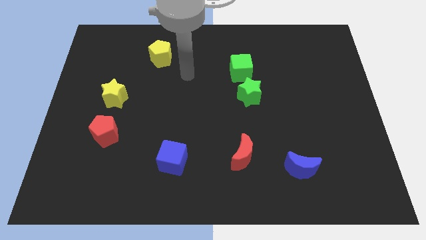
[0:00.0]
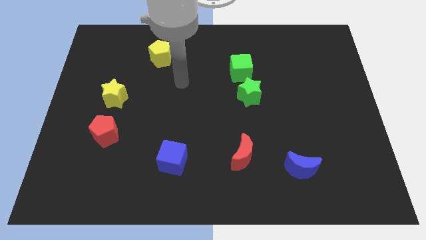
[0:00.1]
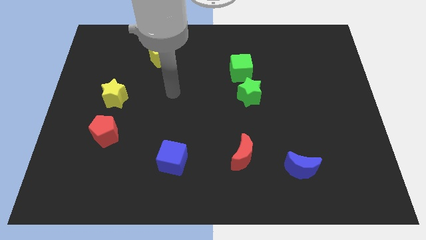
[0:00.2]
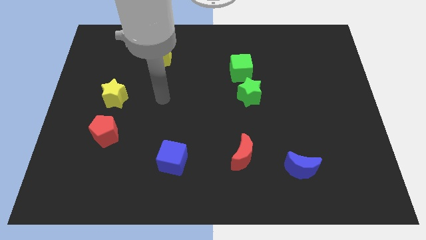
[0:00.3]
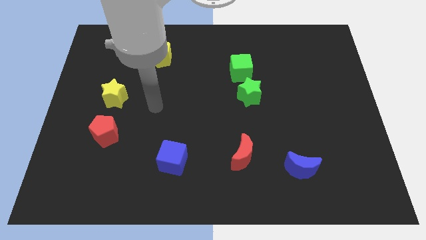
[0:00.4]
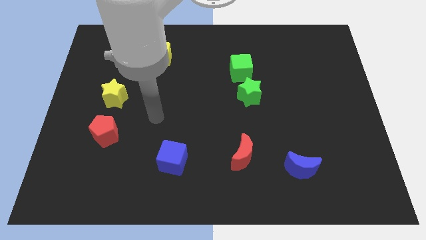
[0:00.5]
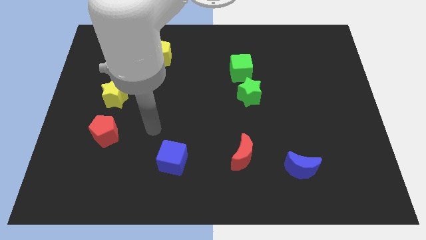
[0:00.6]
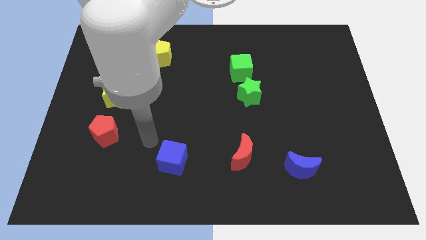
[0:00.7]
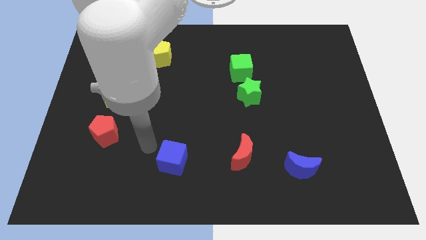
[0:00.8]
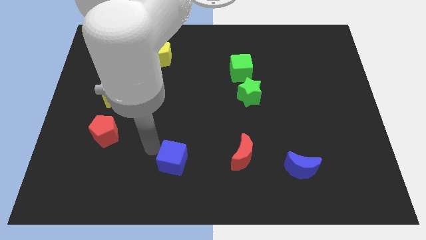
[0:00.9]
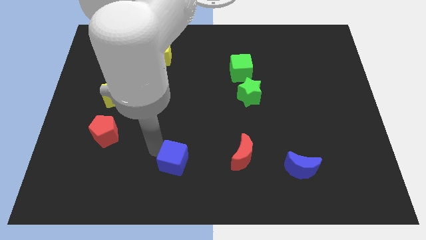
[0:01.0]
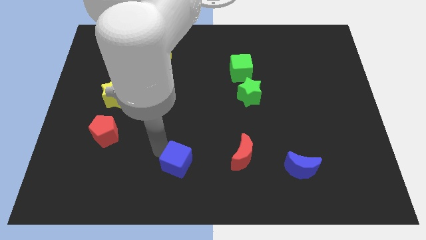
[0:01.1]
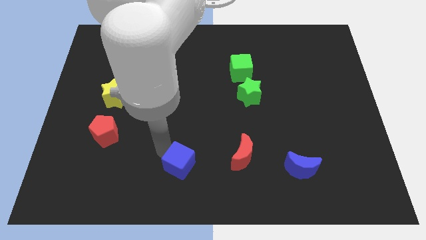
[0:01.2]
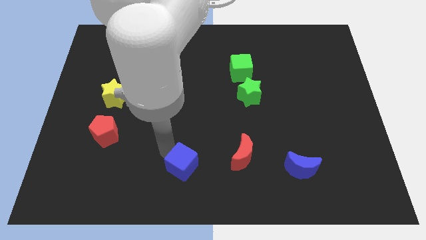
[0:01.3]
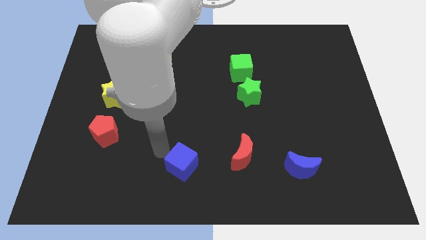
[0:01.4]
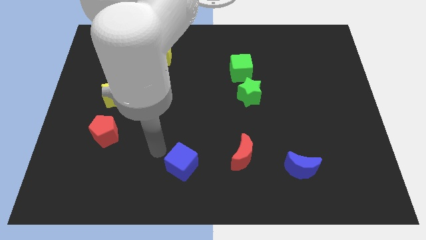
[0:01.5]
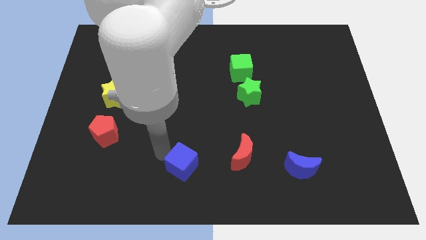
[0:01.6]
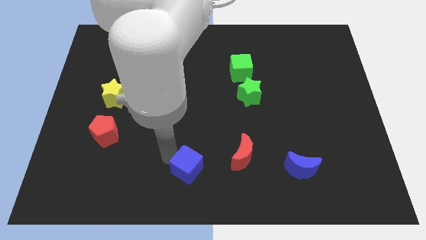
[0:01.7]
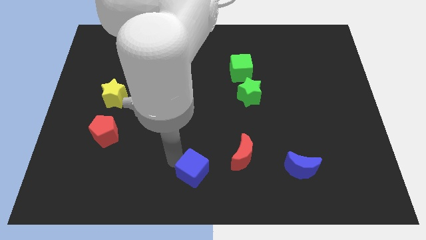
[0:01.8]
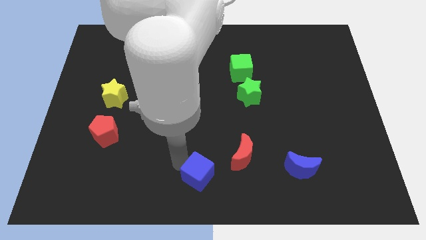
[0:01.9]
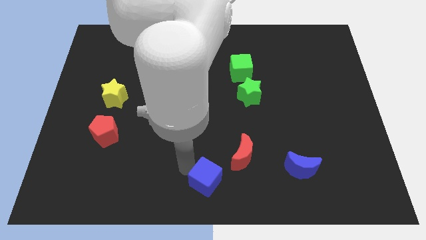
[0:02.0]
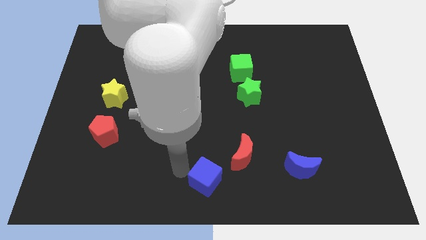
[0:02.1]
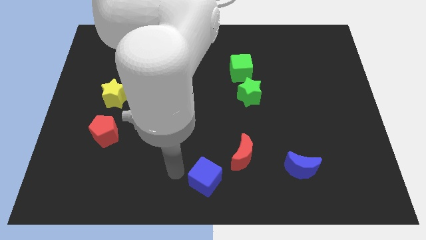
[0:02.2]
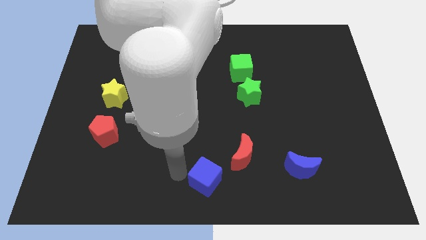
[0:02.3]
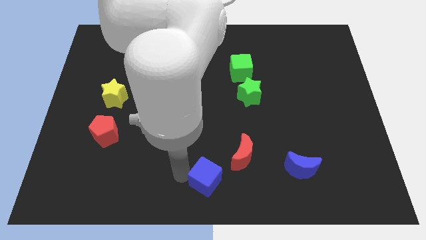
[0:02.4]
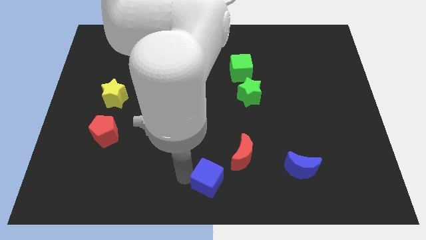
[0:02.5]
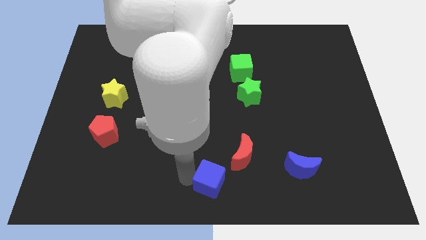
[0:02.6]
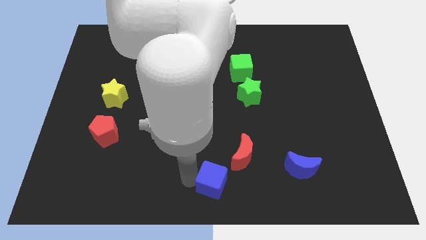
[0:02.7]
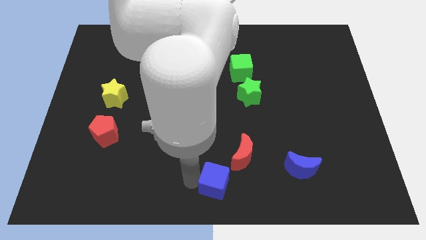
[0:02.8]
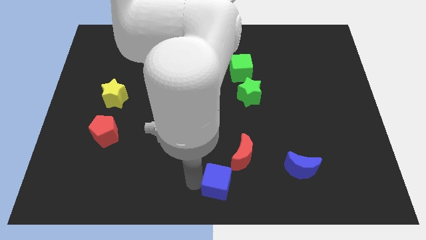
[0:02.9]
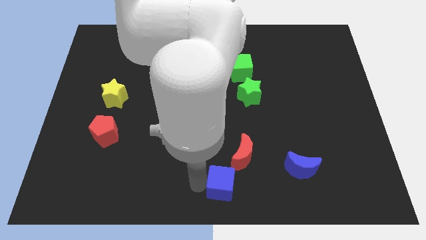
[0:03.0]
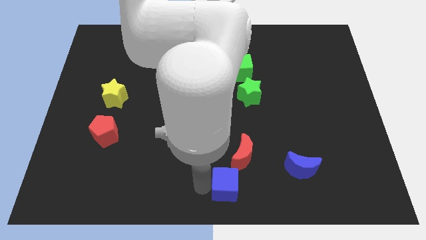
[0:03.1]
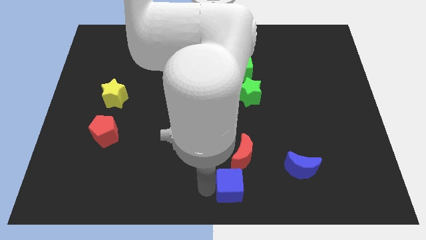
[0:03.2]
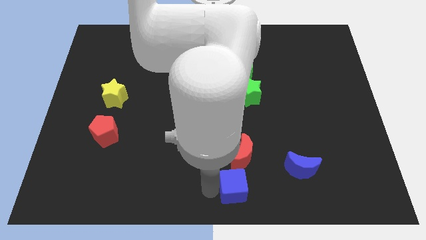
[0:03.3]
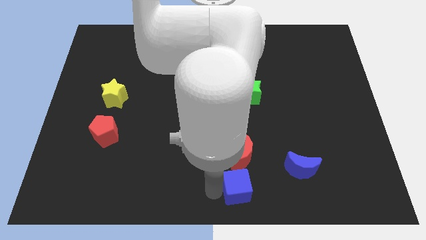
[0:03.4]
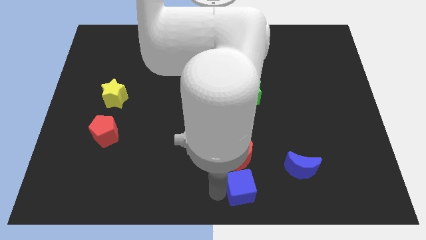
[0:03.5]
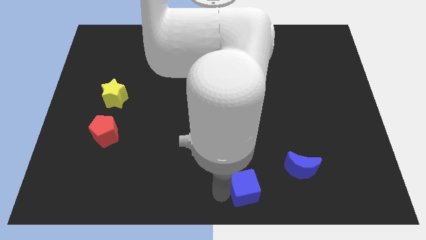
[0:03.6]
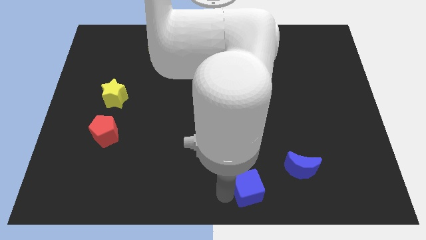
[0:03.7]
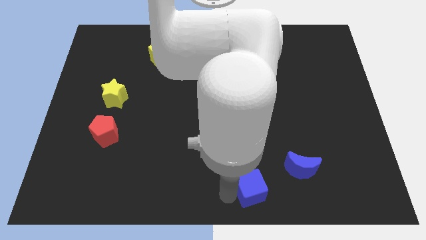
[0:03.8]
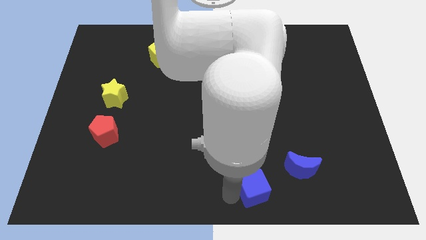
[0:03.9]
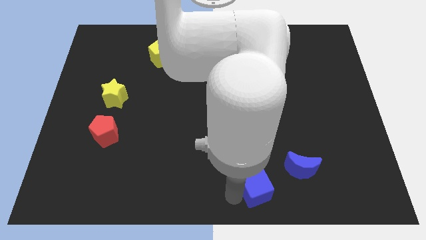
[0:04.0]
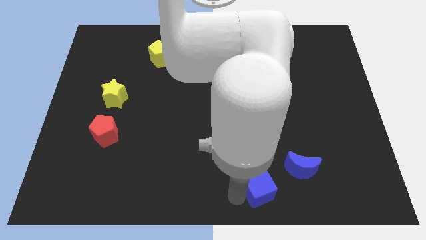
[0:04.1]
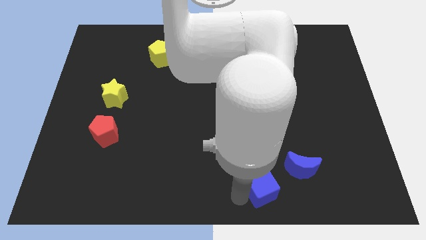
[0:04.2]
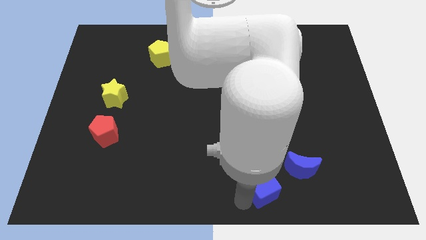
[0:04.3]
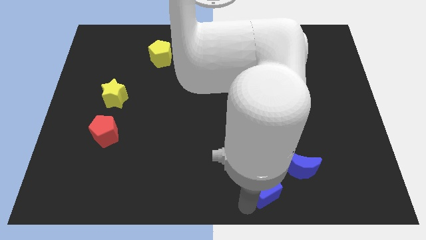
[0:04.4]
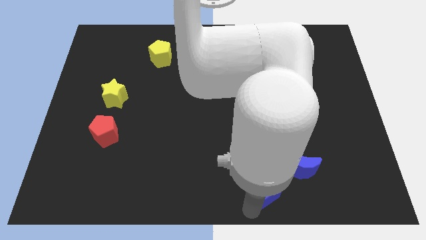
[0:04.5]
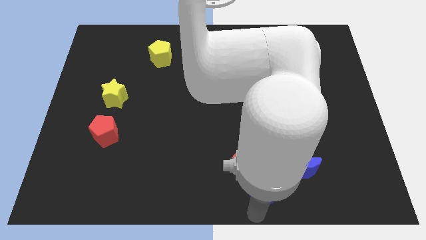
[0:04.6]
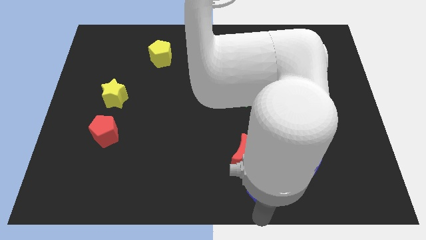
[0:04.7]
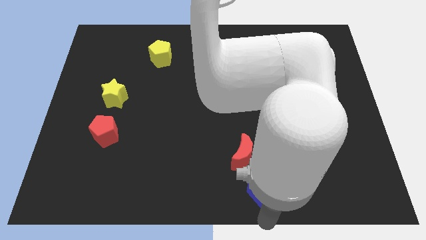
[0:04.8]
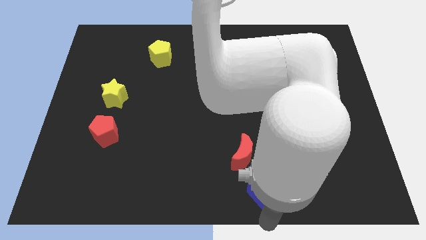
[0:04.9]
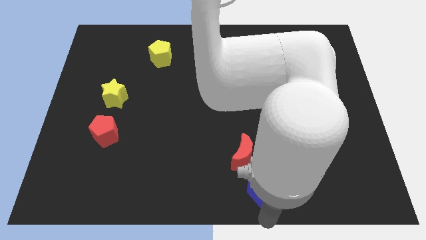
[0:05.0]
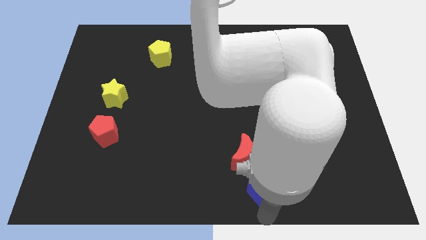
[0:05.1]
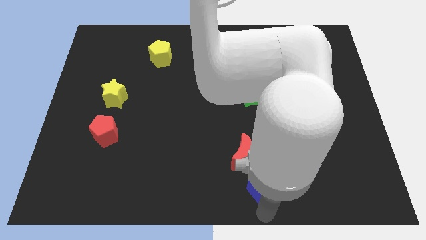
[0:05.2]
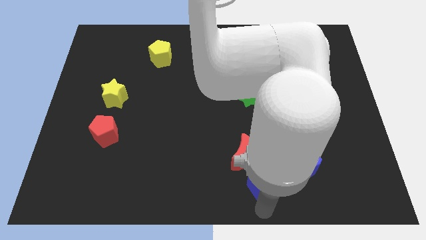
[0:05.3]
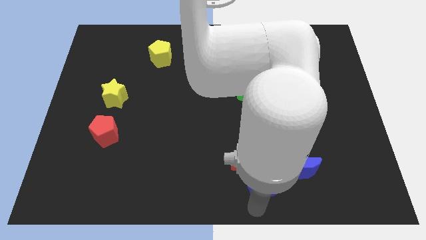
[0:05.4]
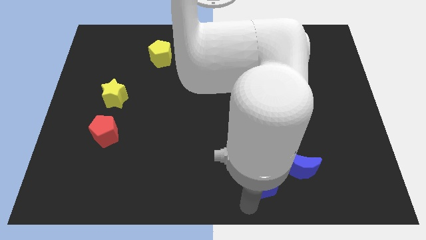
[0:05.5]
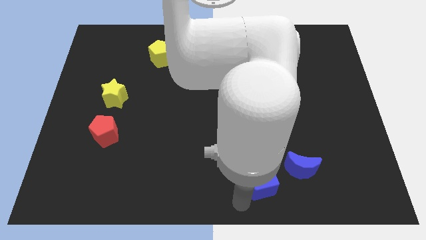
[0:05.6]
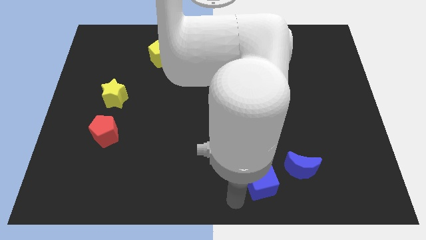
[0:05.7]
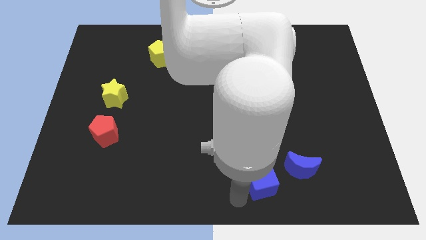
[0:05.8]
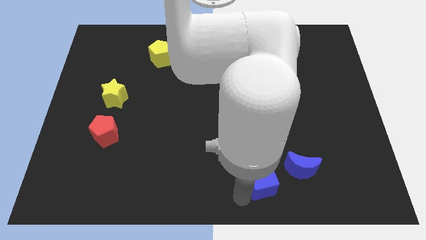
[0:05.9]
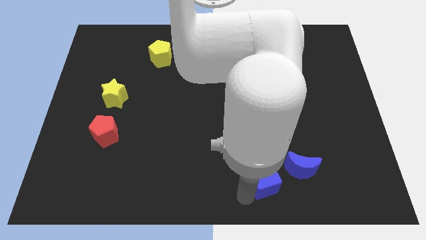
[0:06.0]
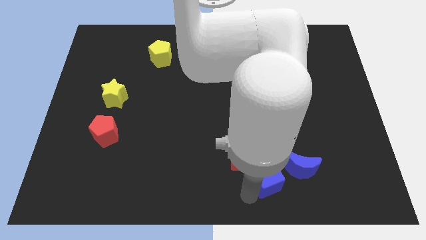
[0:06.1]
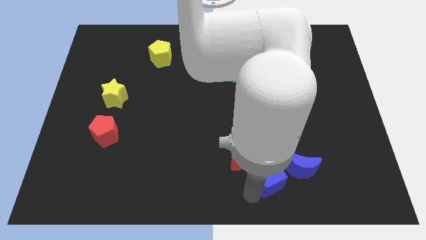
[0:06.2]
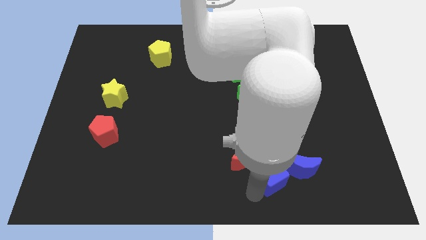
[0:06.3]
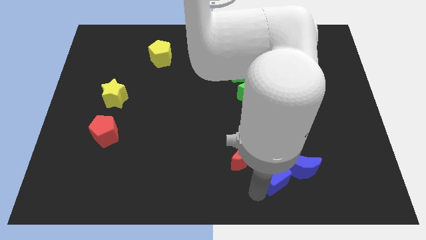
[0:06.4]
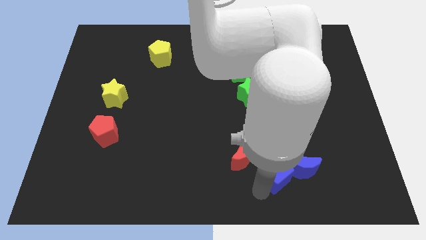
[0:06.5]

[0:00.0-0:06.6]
push the blue cube towards the blue moon
